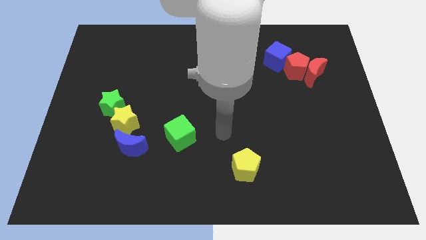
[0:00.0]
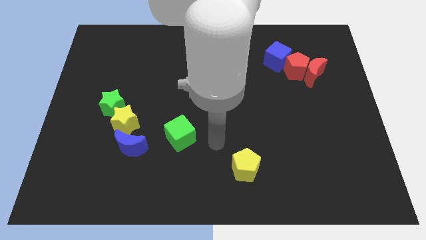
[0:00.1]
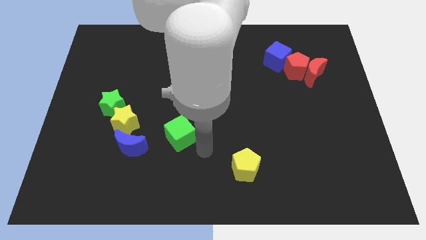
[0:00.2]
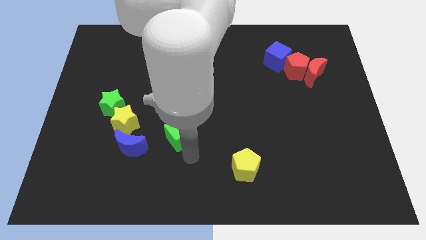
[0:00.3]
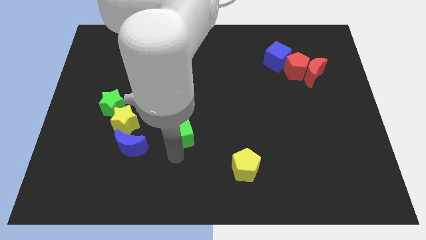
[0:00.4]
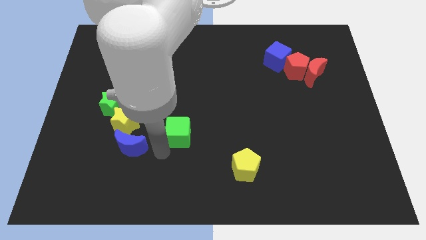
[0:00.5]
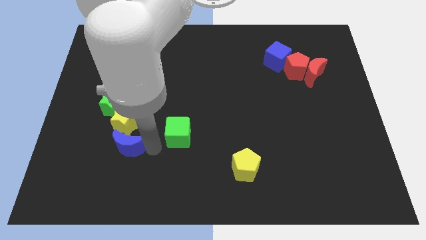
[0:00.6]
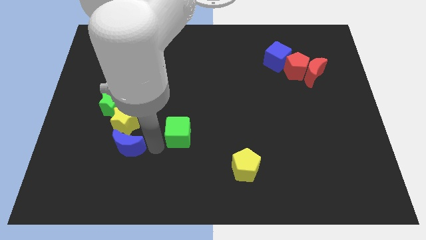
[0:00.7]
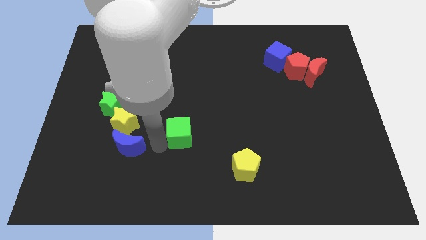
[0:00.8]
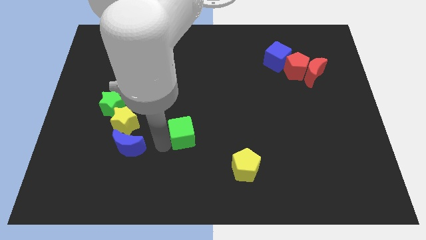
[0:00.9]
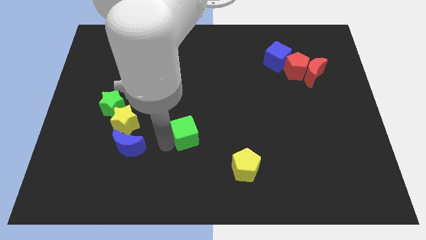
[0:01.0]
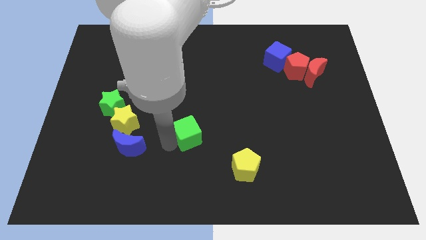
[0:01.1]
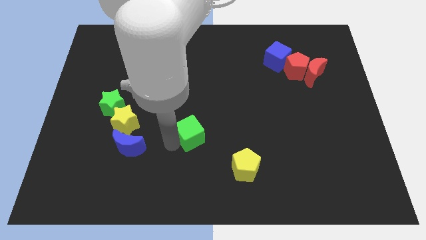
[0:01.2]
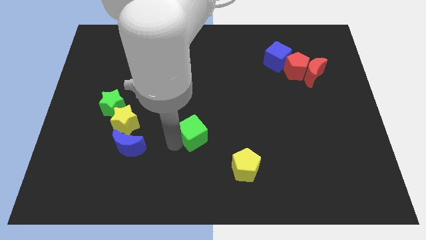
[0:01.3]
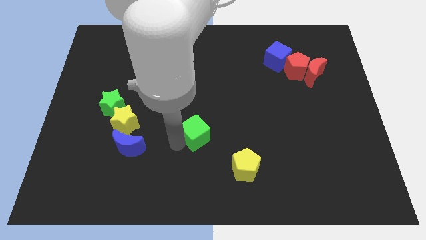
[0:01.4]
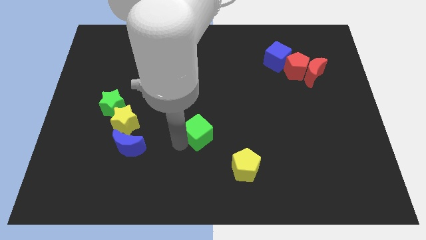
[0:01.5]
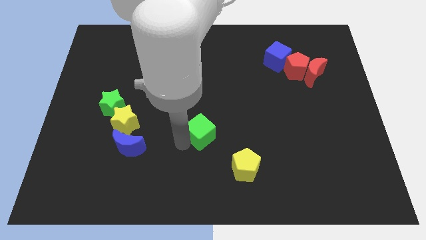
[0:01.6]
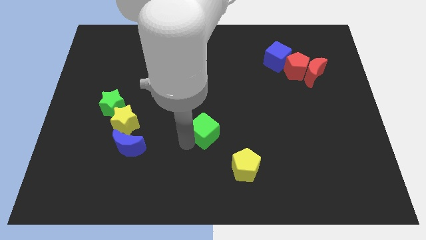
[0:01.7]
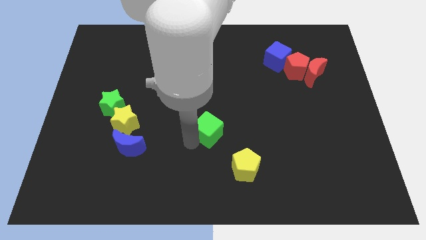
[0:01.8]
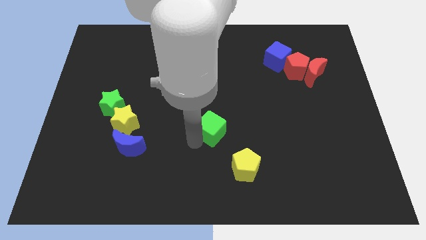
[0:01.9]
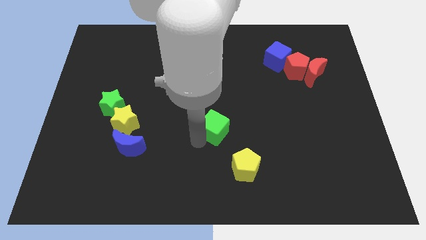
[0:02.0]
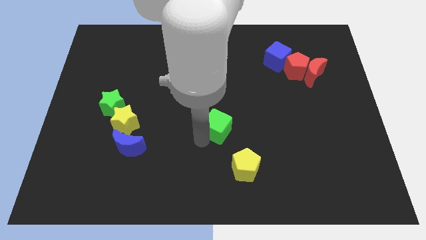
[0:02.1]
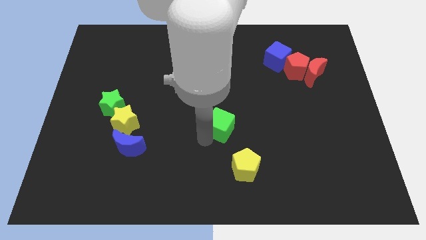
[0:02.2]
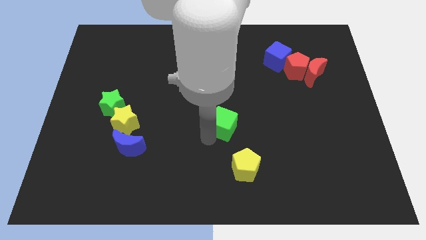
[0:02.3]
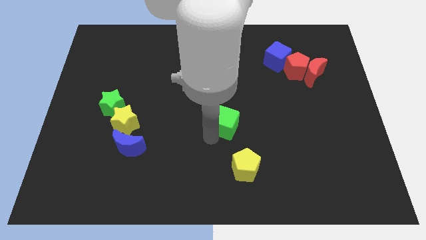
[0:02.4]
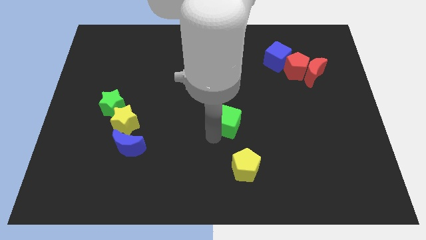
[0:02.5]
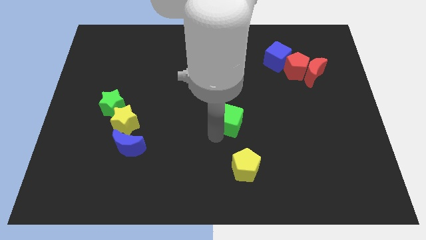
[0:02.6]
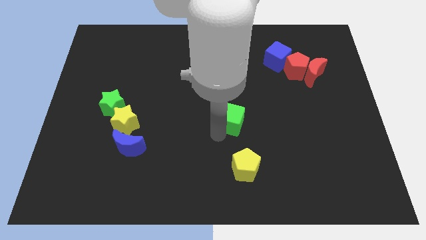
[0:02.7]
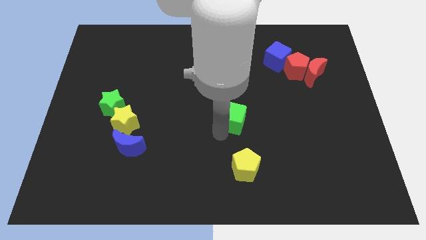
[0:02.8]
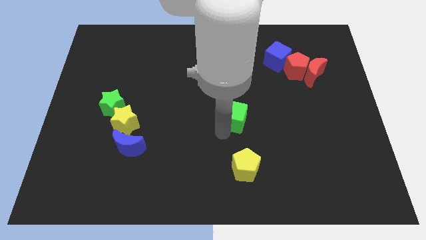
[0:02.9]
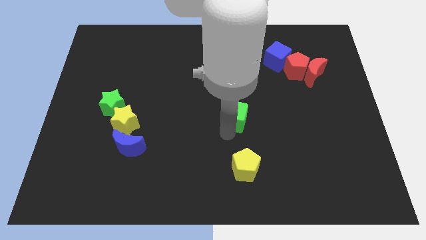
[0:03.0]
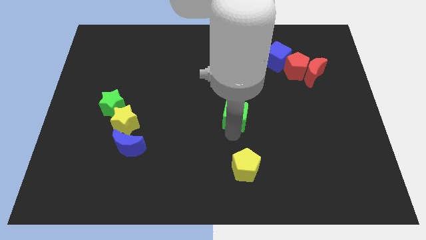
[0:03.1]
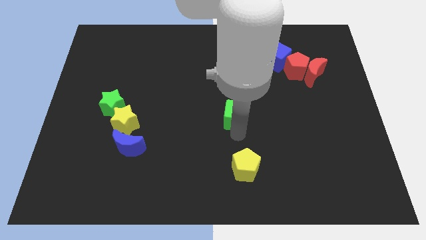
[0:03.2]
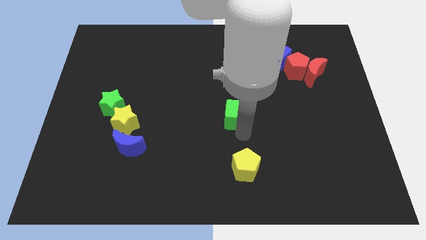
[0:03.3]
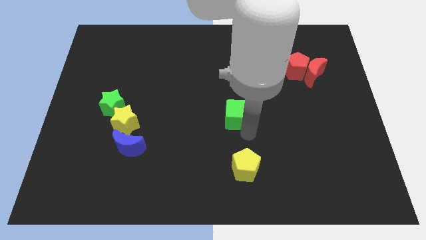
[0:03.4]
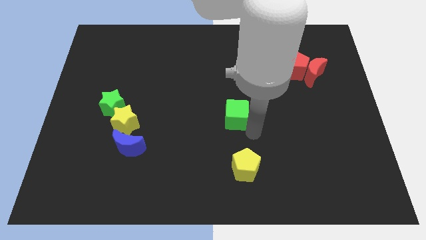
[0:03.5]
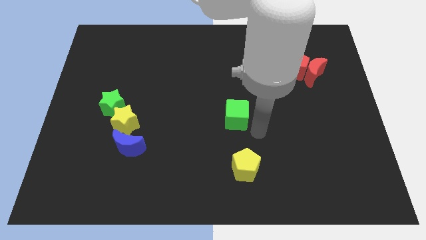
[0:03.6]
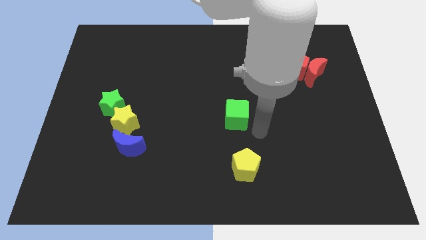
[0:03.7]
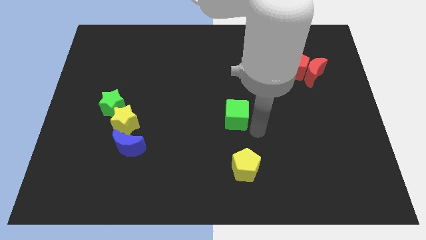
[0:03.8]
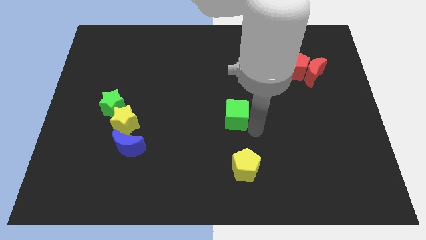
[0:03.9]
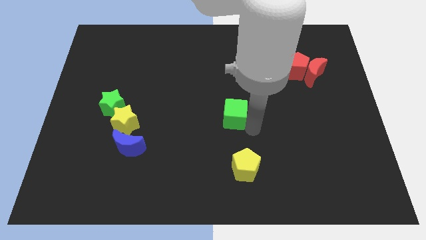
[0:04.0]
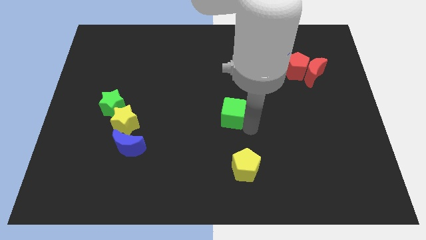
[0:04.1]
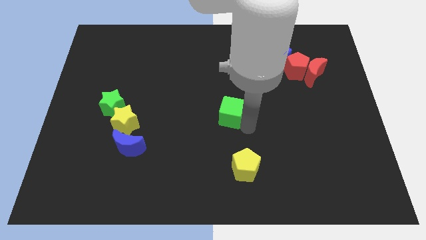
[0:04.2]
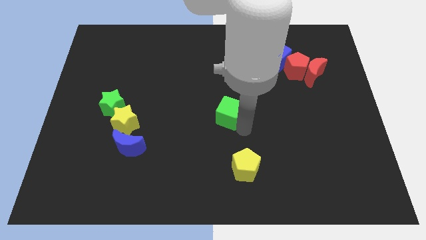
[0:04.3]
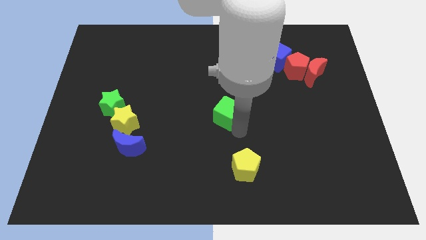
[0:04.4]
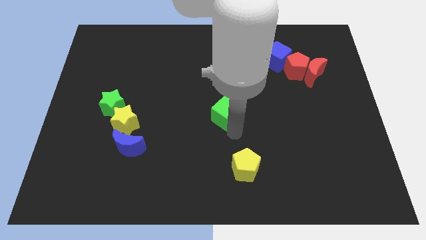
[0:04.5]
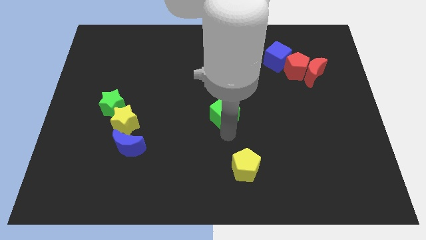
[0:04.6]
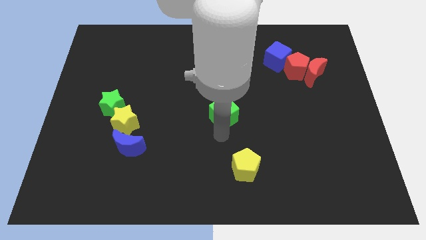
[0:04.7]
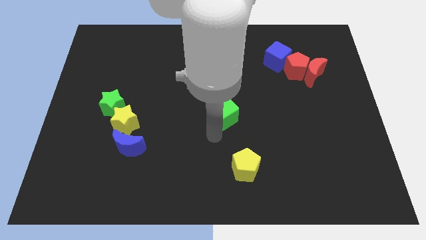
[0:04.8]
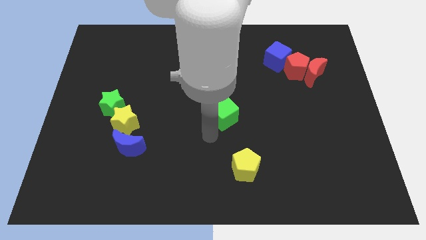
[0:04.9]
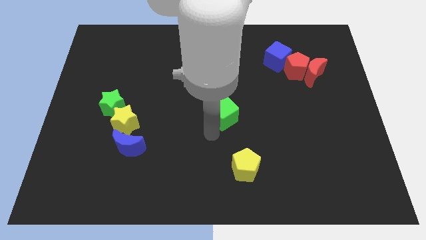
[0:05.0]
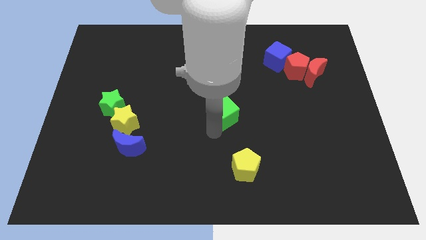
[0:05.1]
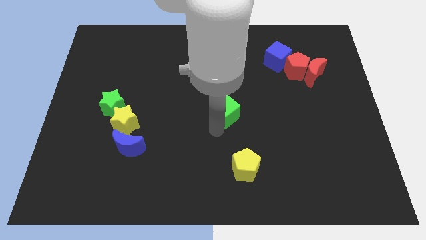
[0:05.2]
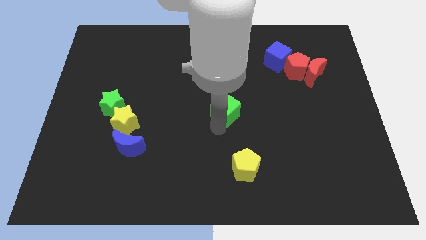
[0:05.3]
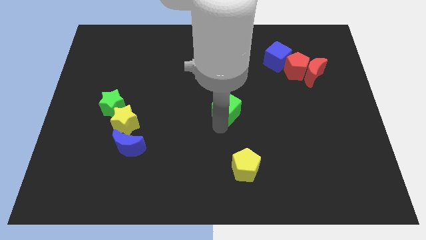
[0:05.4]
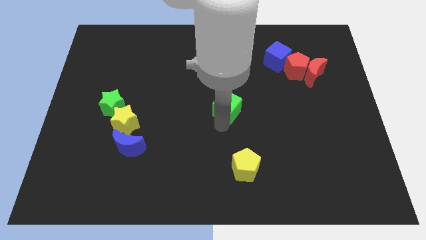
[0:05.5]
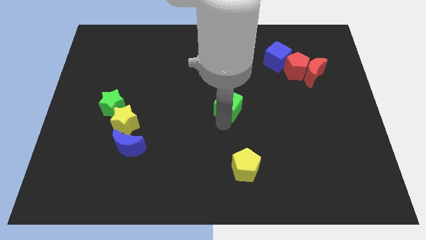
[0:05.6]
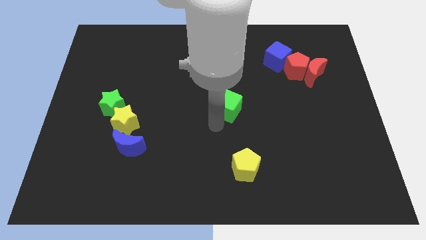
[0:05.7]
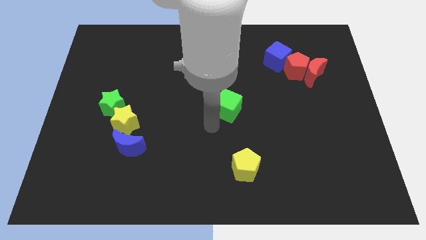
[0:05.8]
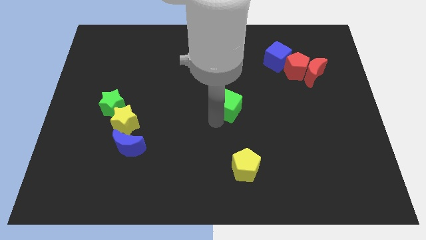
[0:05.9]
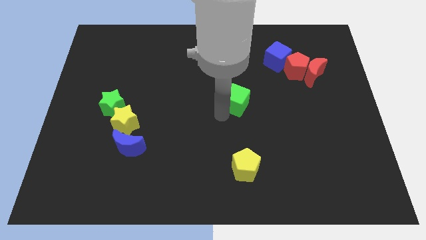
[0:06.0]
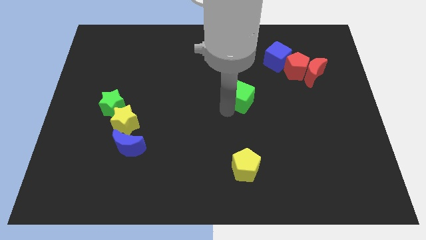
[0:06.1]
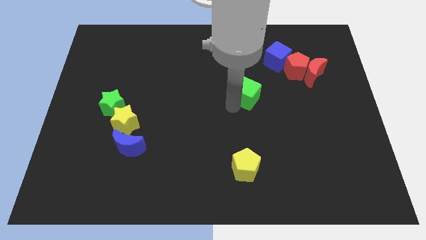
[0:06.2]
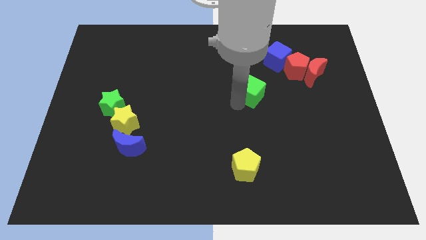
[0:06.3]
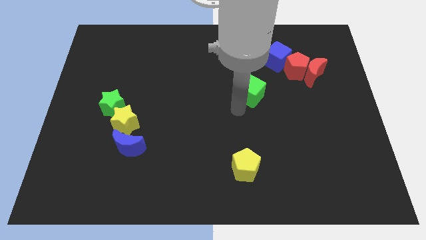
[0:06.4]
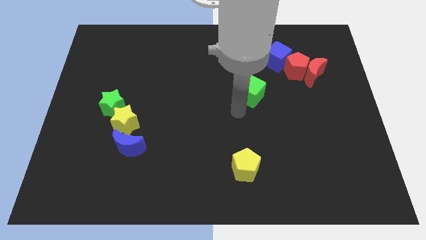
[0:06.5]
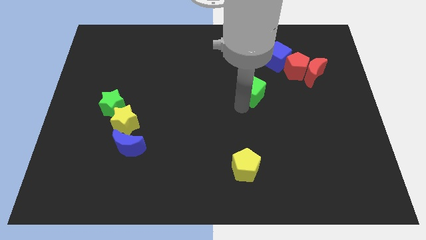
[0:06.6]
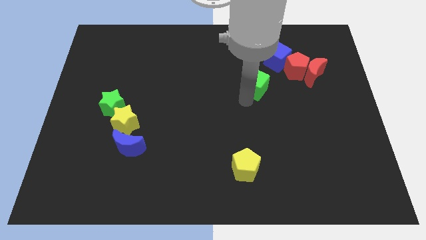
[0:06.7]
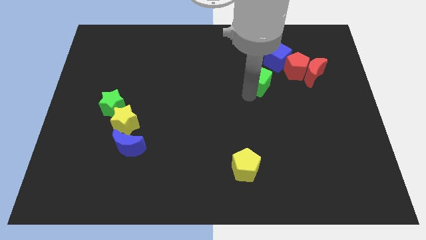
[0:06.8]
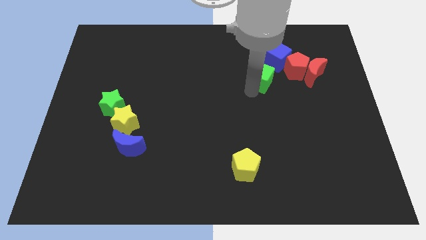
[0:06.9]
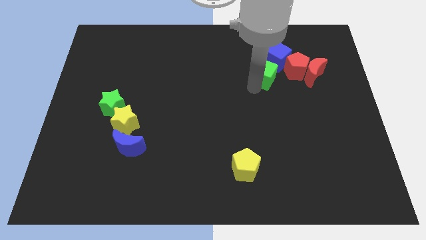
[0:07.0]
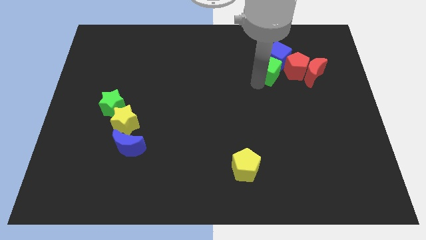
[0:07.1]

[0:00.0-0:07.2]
put the green cube close to the blue cube
